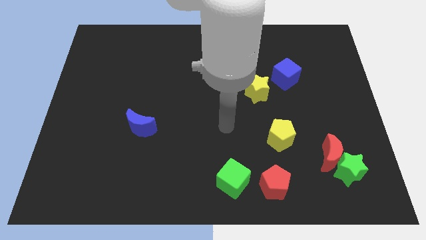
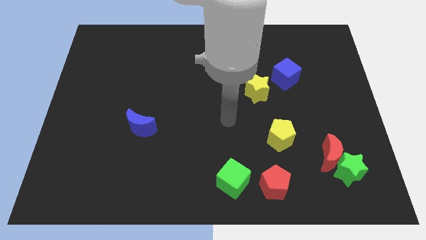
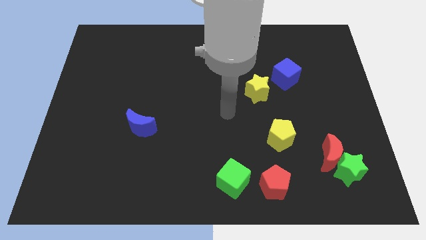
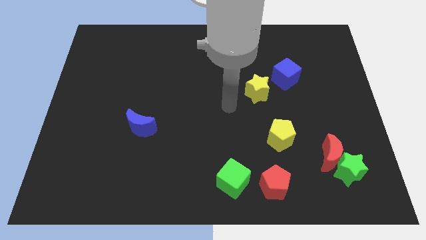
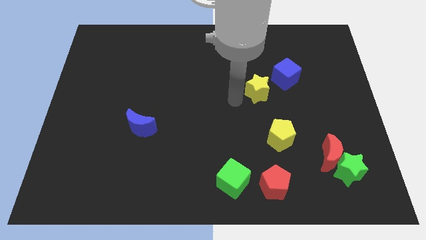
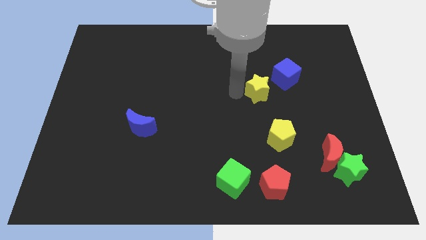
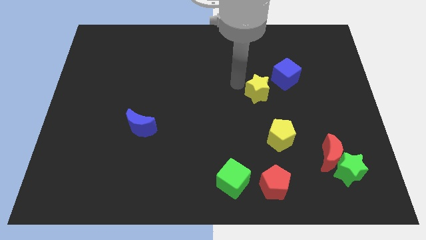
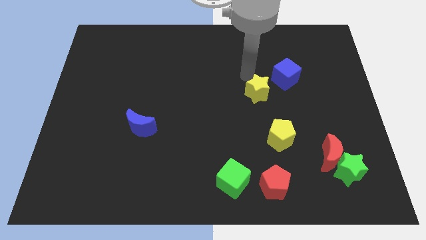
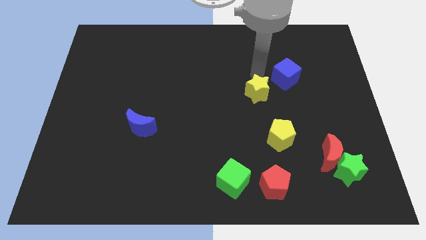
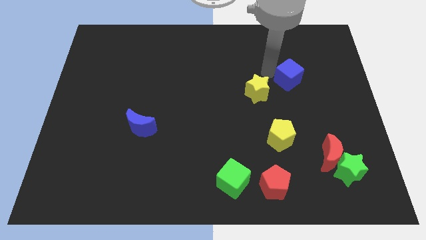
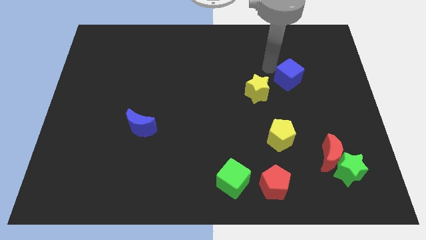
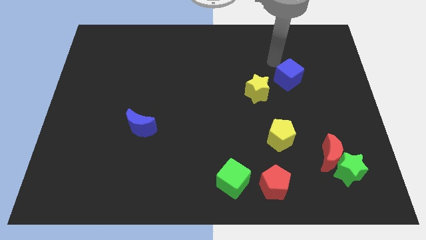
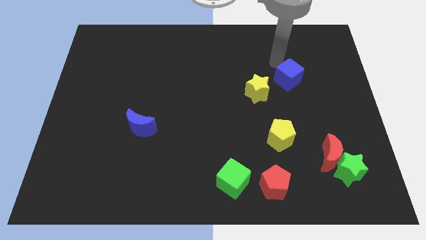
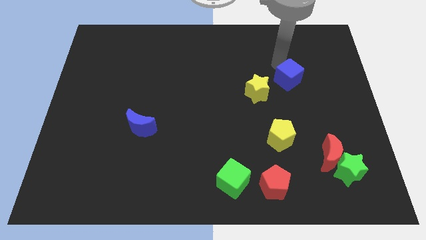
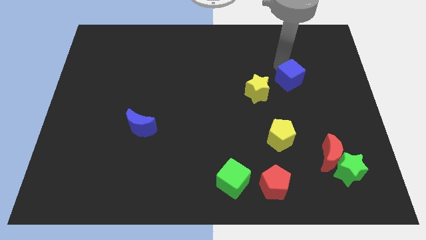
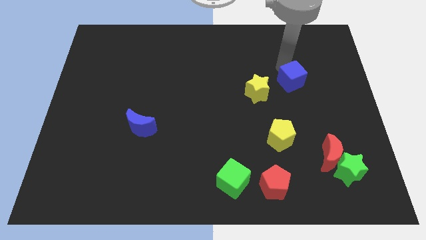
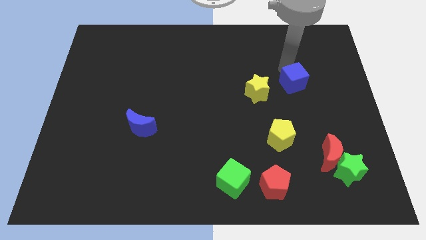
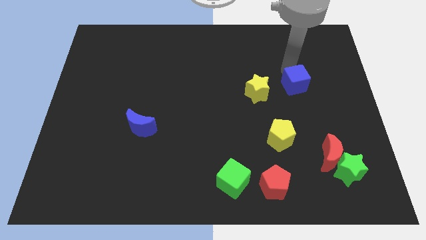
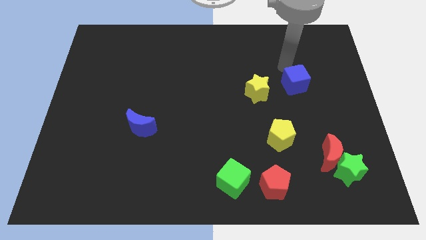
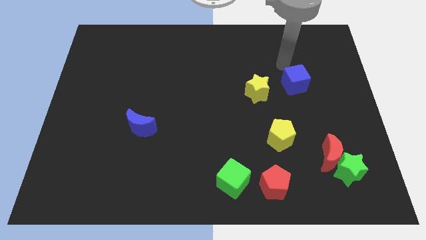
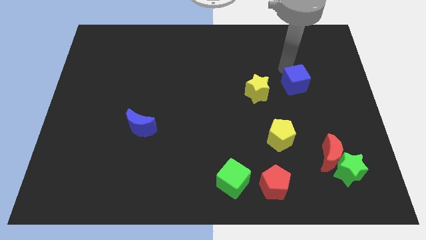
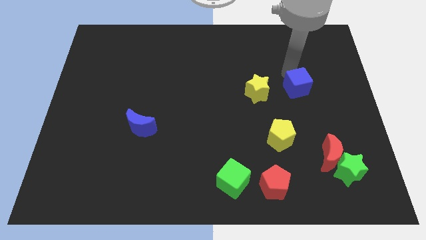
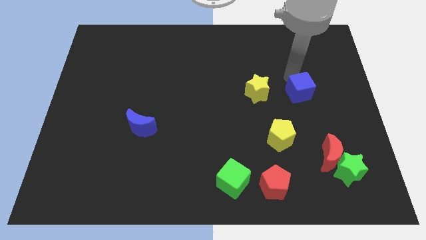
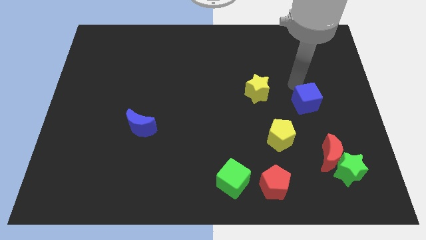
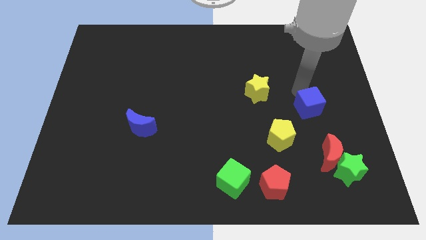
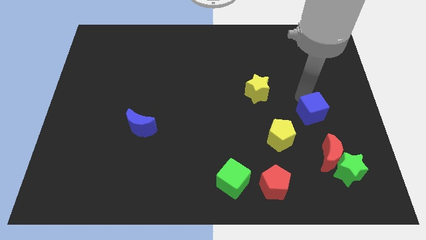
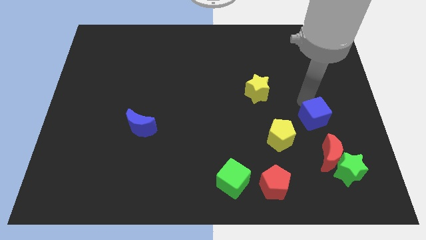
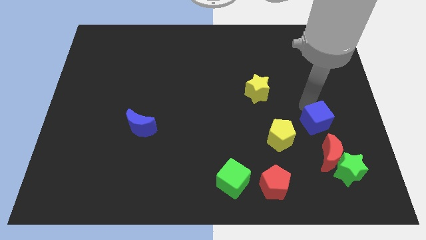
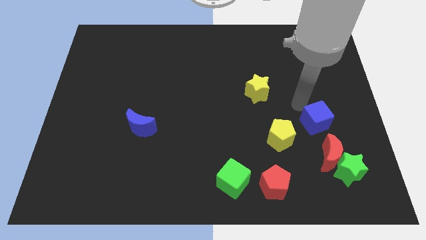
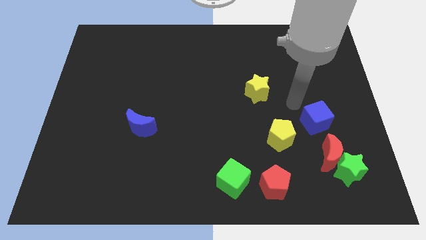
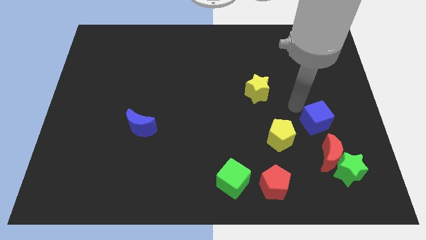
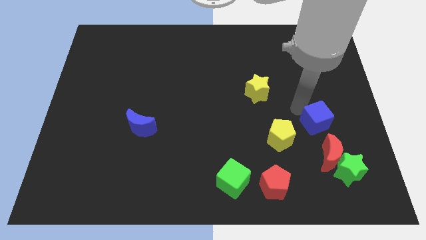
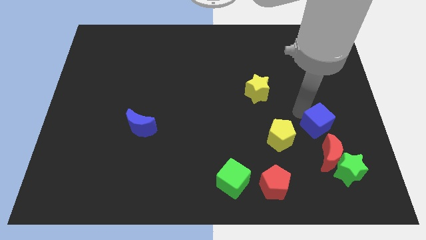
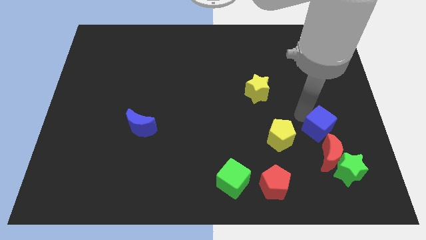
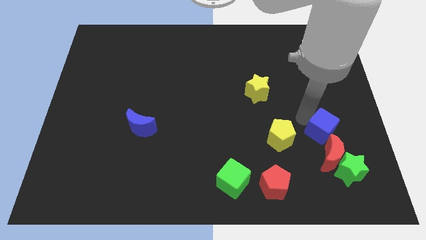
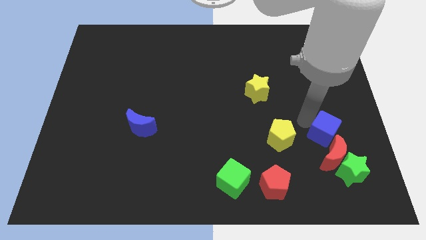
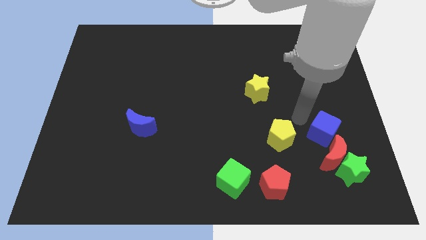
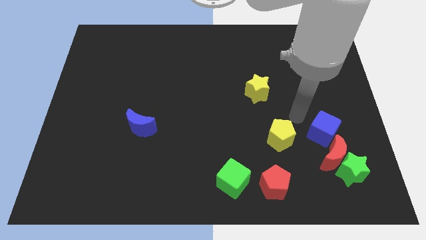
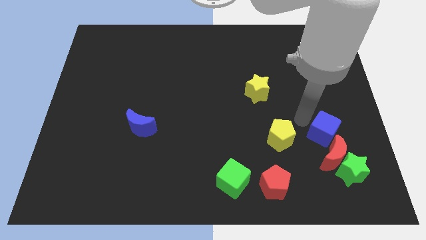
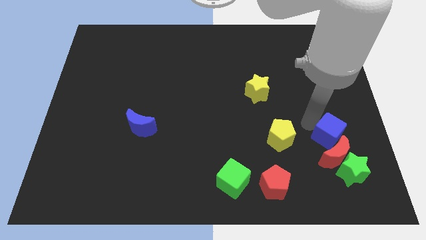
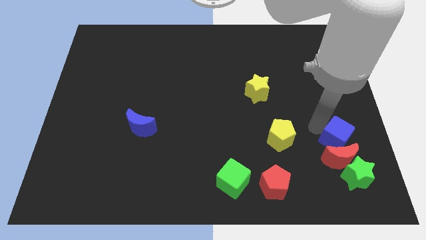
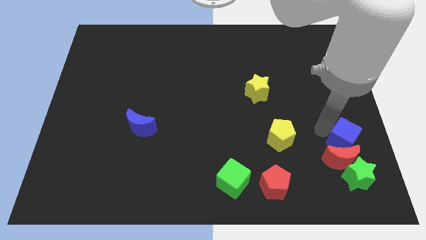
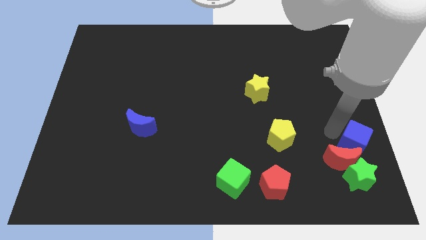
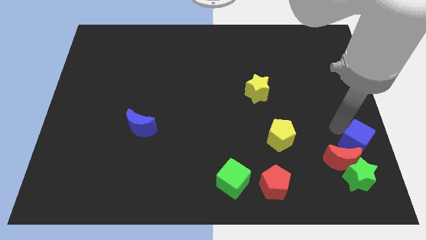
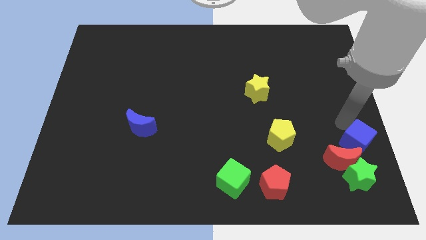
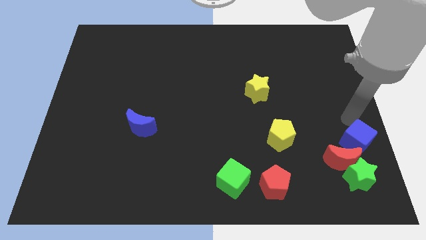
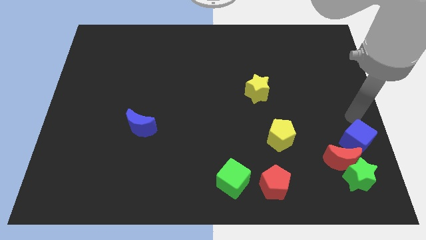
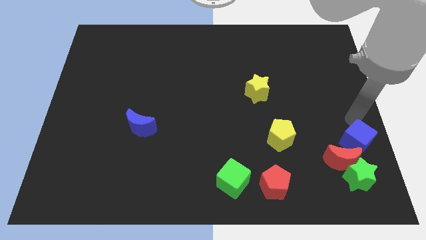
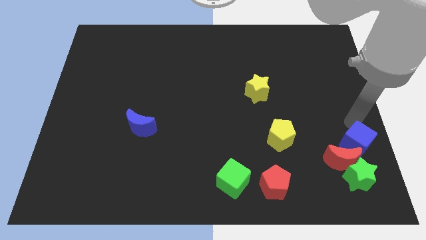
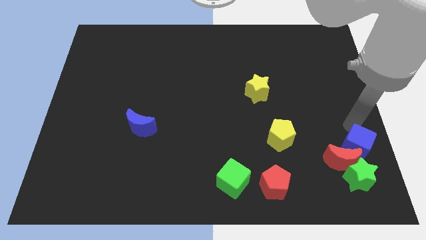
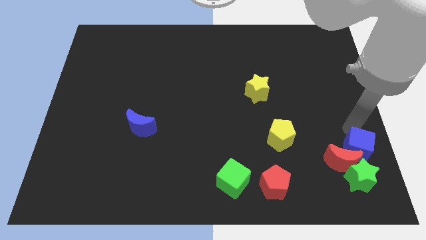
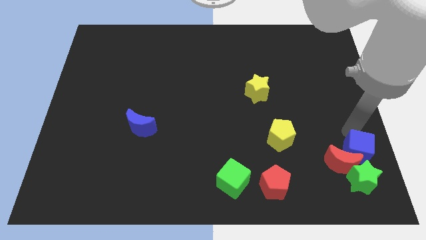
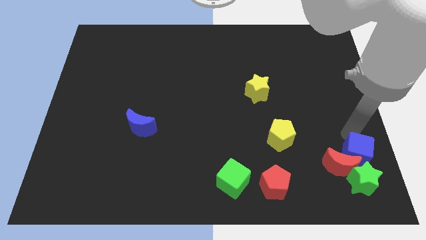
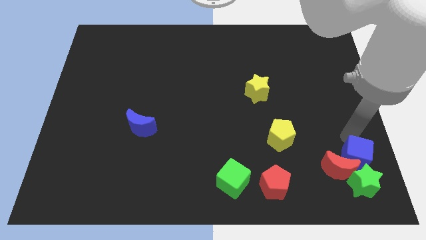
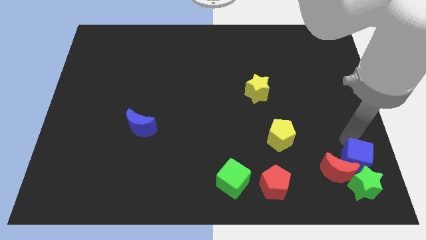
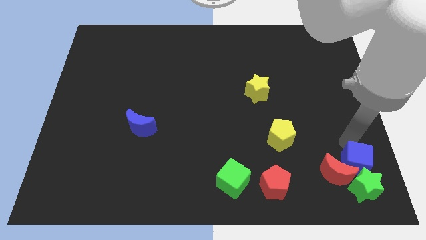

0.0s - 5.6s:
put the blue cube next to the green star
